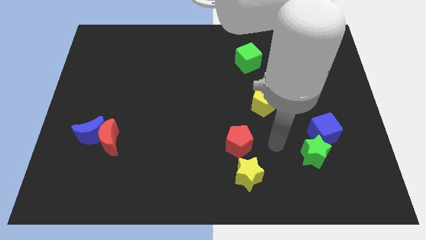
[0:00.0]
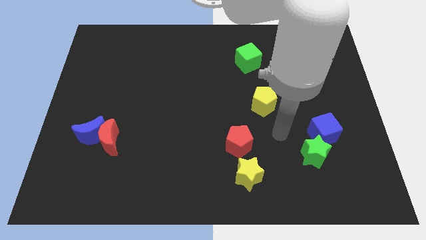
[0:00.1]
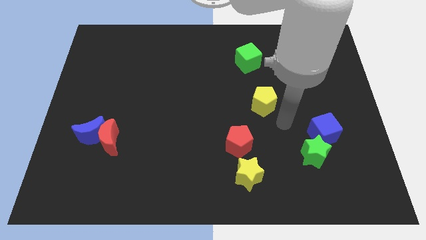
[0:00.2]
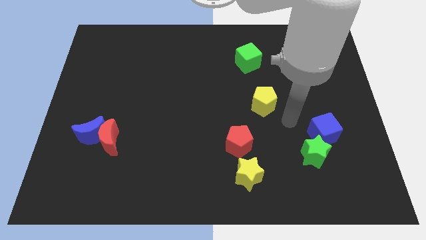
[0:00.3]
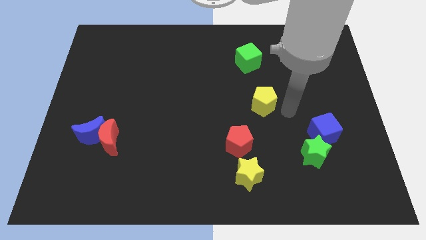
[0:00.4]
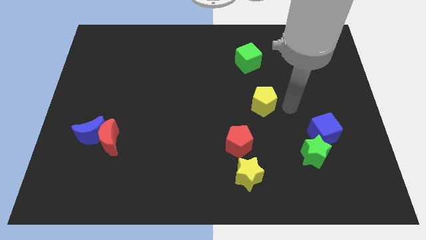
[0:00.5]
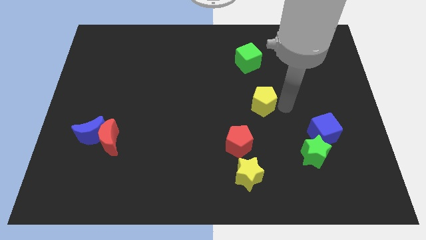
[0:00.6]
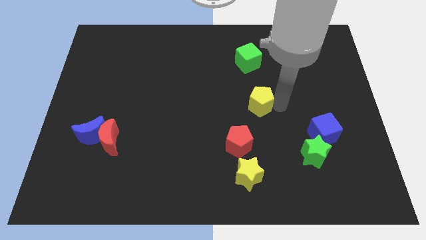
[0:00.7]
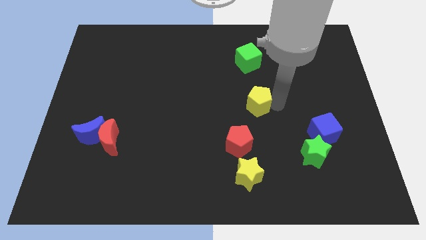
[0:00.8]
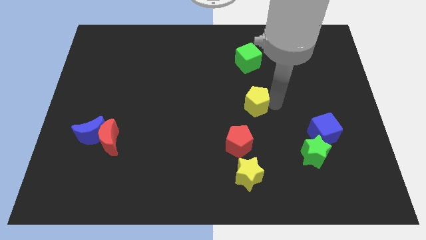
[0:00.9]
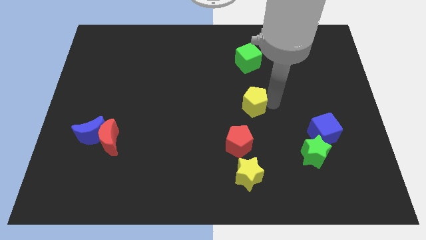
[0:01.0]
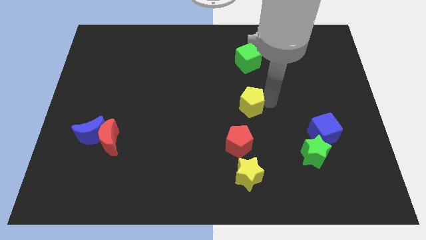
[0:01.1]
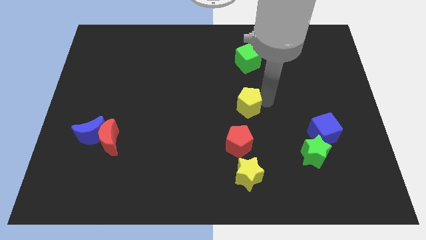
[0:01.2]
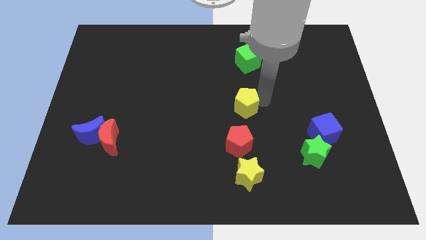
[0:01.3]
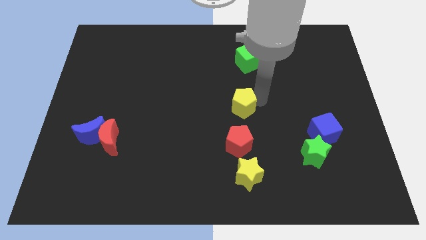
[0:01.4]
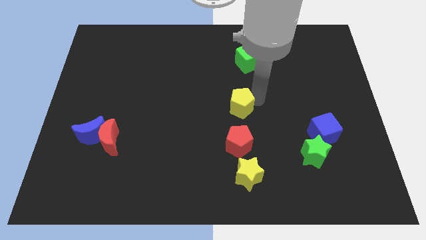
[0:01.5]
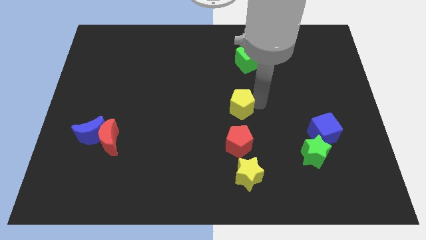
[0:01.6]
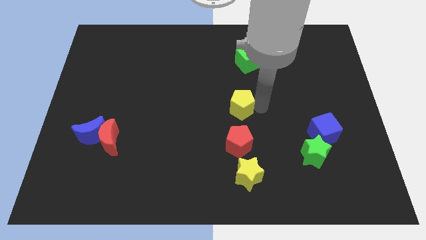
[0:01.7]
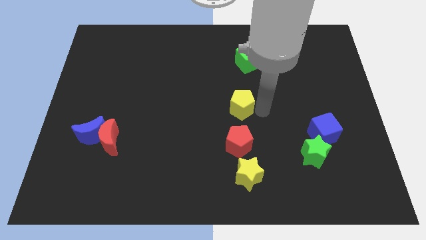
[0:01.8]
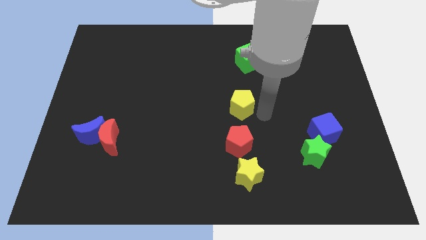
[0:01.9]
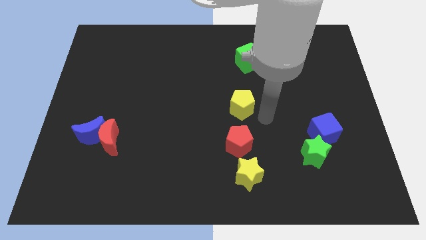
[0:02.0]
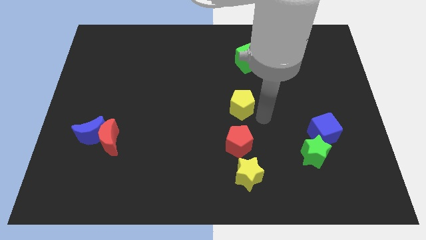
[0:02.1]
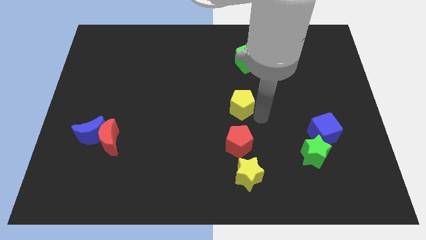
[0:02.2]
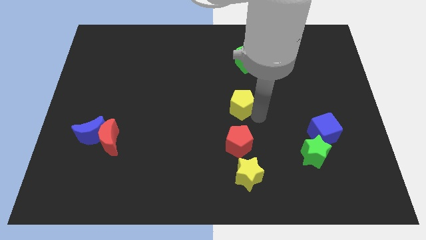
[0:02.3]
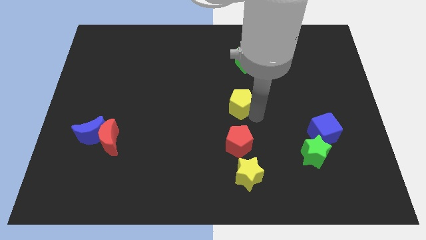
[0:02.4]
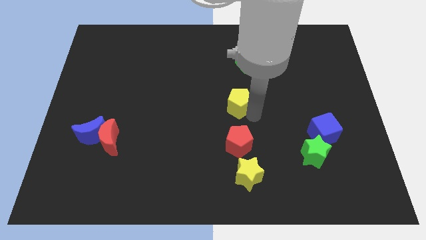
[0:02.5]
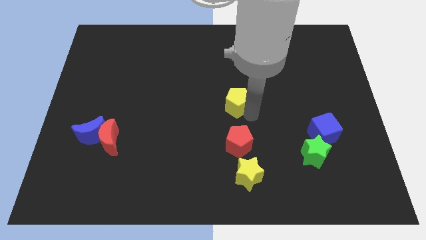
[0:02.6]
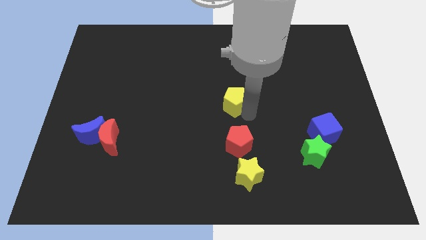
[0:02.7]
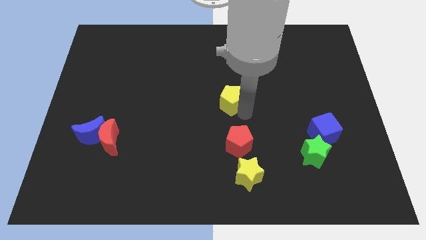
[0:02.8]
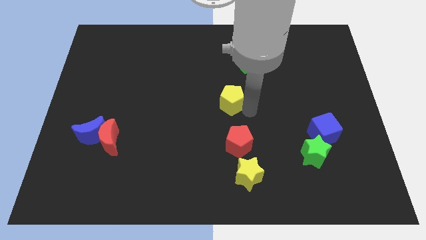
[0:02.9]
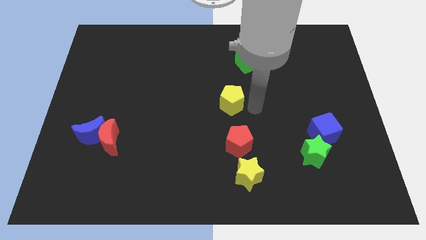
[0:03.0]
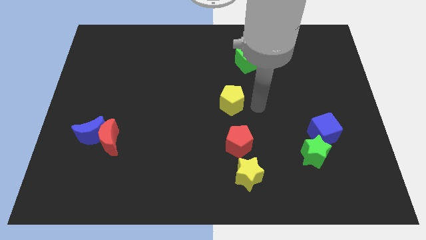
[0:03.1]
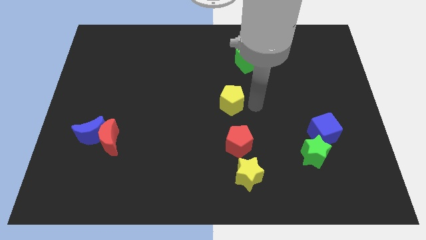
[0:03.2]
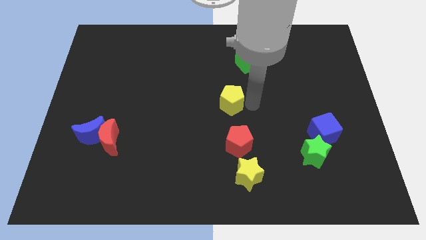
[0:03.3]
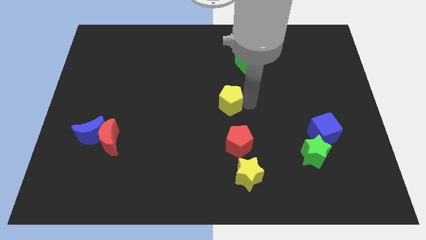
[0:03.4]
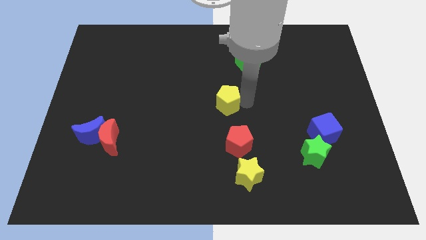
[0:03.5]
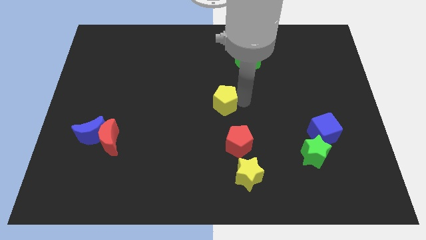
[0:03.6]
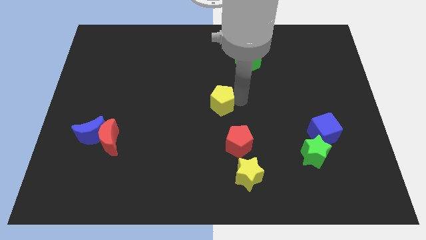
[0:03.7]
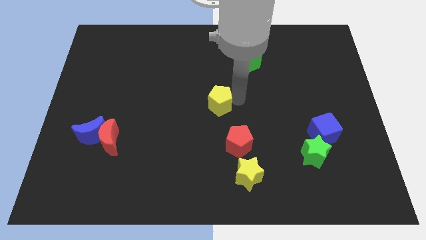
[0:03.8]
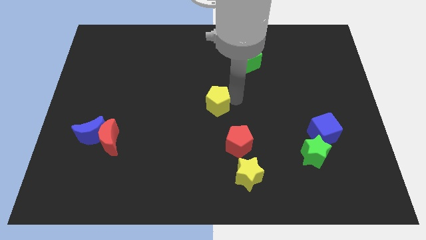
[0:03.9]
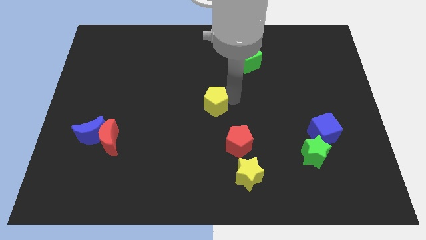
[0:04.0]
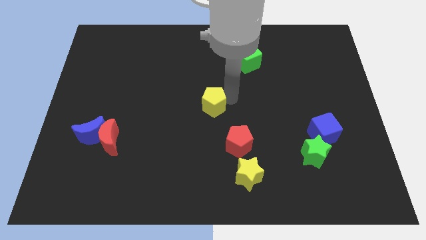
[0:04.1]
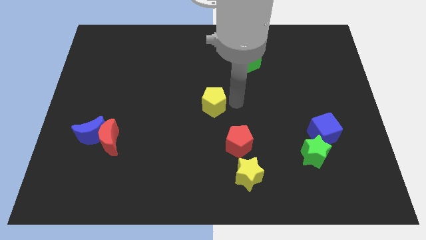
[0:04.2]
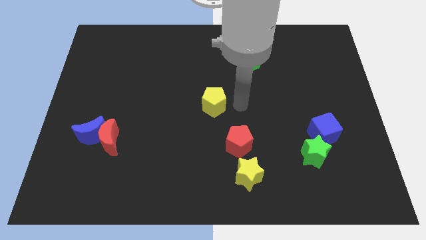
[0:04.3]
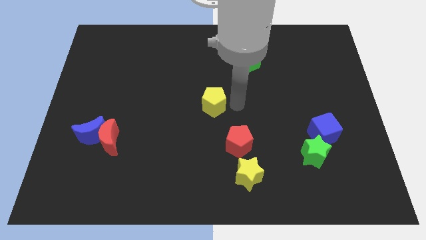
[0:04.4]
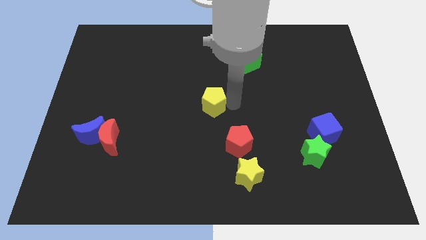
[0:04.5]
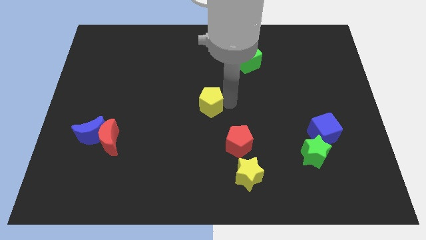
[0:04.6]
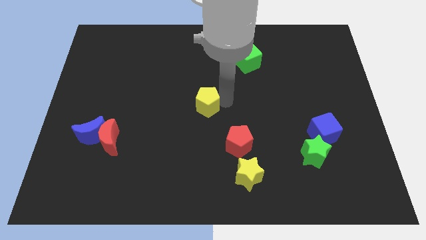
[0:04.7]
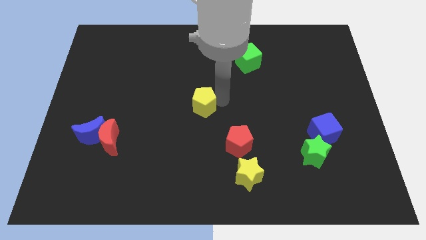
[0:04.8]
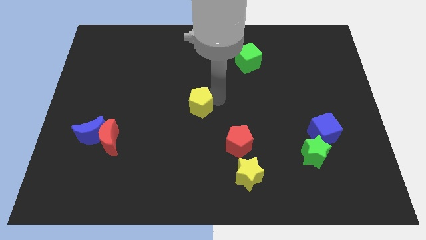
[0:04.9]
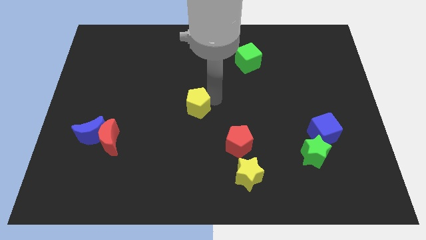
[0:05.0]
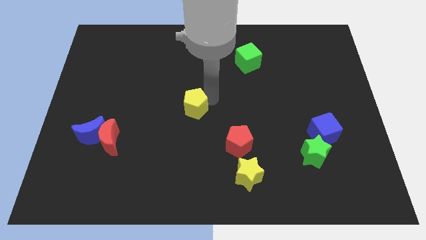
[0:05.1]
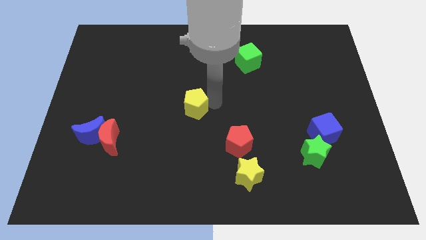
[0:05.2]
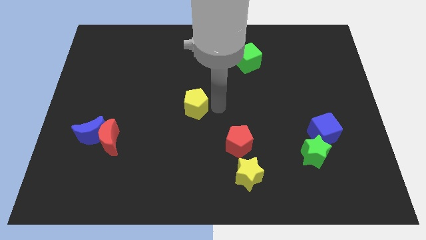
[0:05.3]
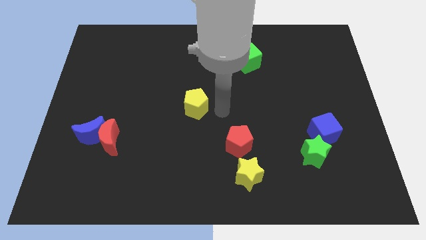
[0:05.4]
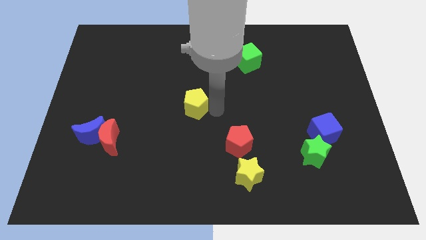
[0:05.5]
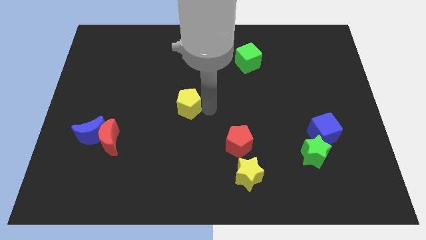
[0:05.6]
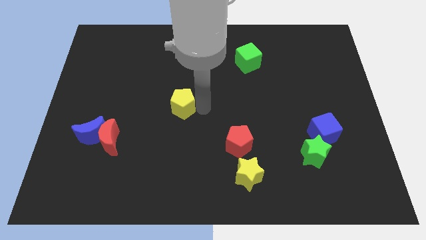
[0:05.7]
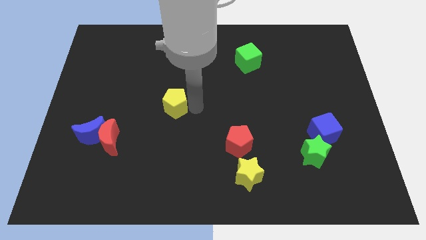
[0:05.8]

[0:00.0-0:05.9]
push the yellow pentagon left

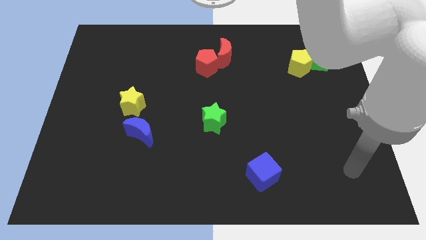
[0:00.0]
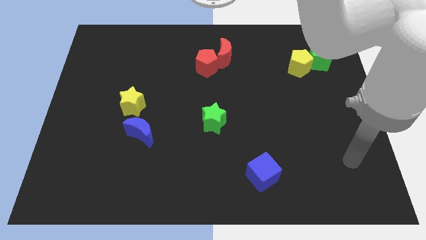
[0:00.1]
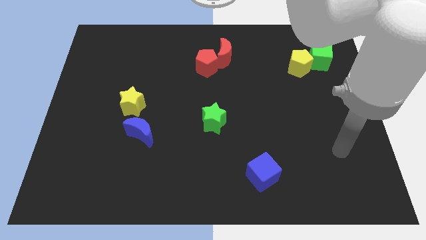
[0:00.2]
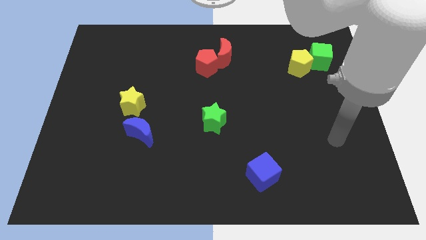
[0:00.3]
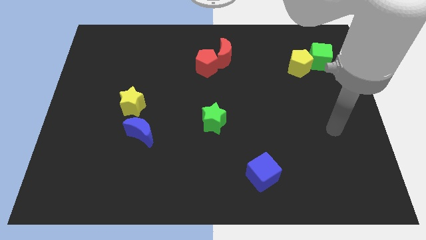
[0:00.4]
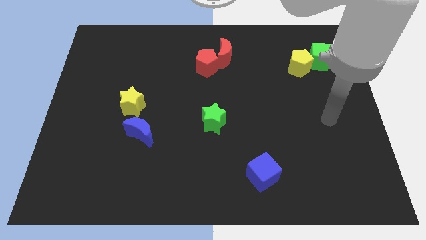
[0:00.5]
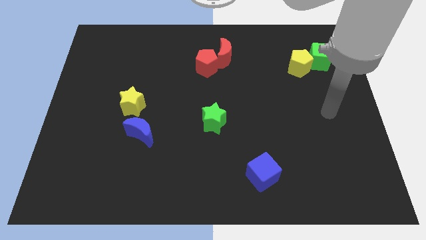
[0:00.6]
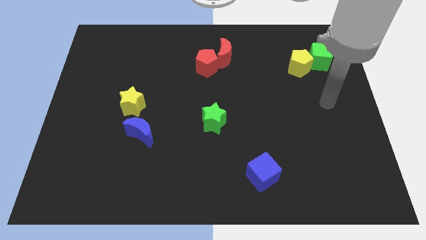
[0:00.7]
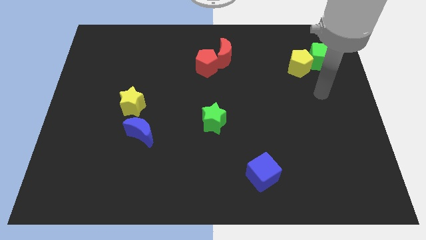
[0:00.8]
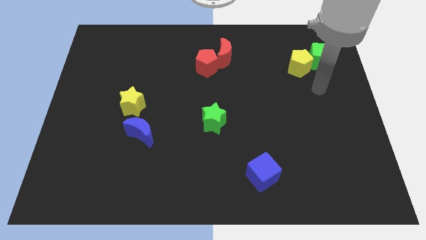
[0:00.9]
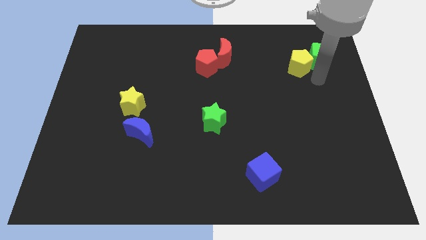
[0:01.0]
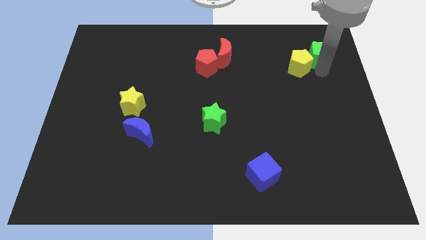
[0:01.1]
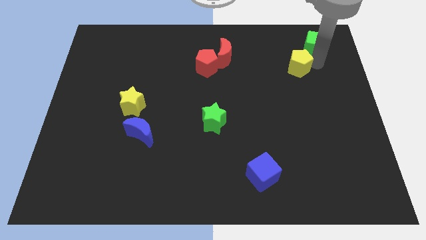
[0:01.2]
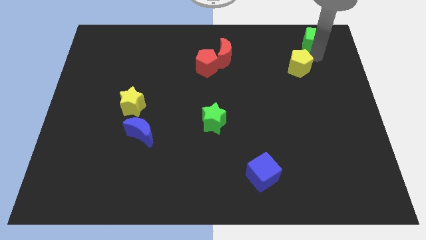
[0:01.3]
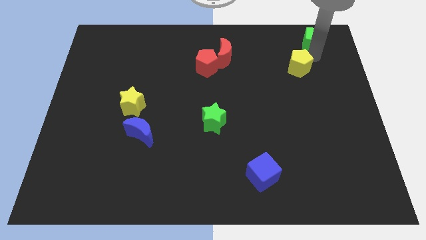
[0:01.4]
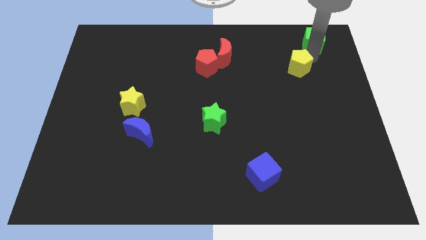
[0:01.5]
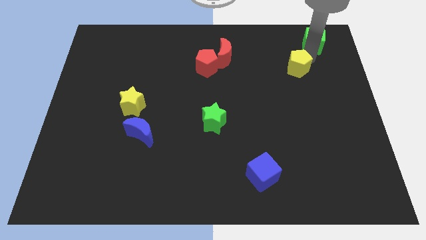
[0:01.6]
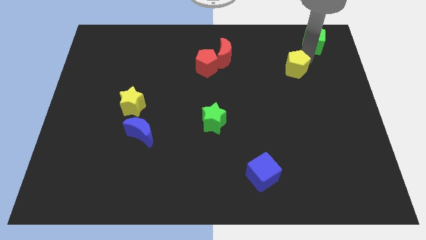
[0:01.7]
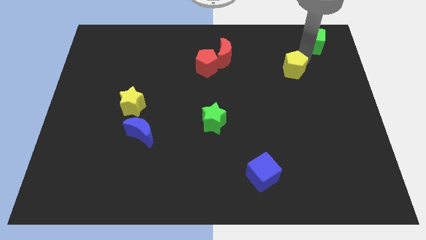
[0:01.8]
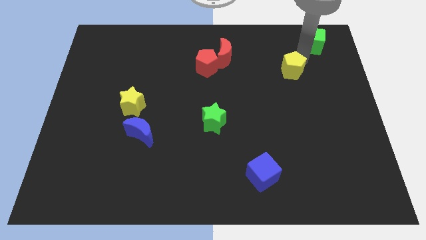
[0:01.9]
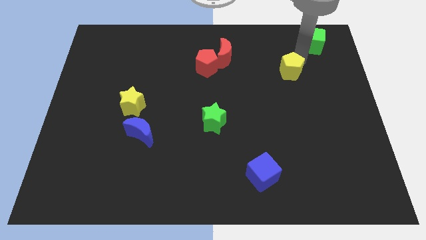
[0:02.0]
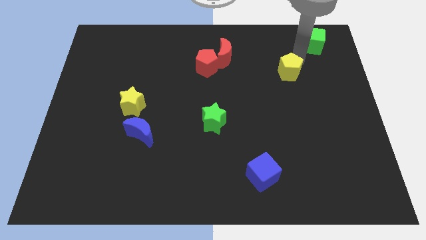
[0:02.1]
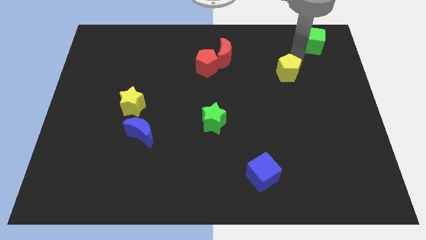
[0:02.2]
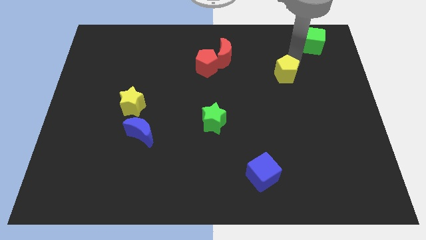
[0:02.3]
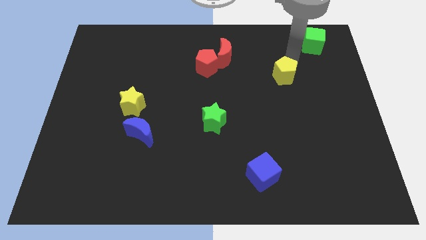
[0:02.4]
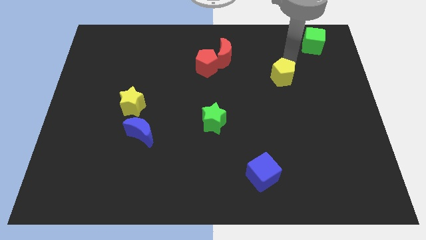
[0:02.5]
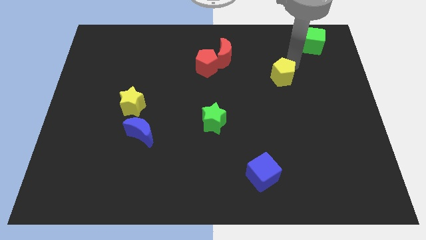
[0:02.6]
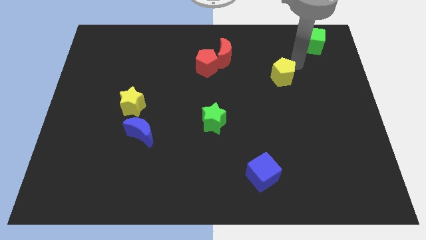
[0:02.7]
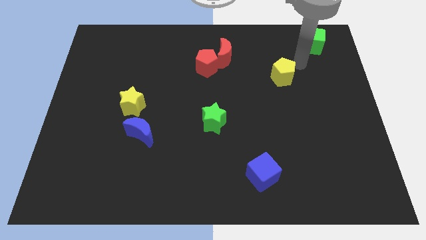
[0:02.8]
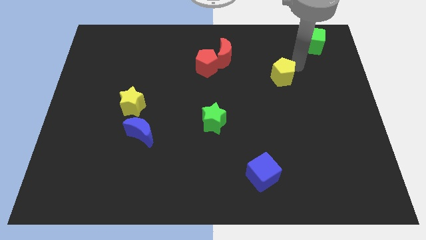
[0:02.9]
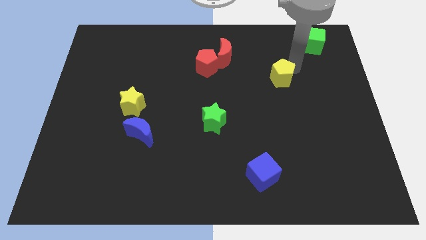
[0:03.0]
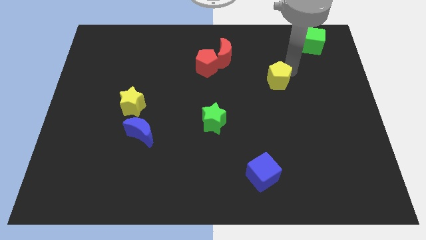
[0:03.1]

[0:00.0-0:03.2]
push the yellow pentagon a little bit down and left
